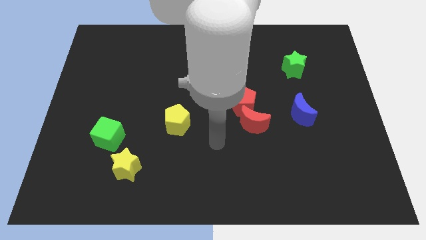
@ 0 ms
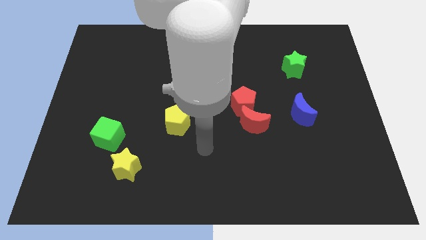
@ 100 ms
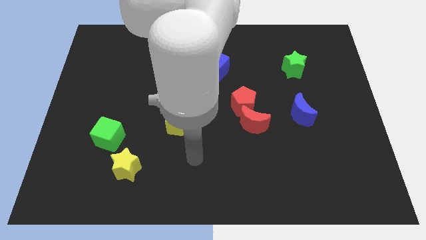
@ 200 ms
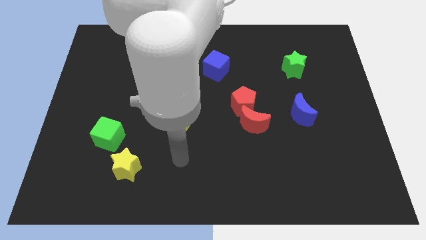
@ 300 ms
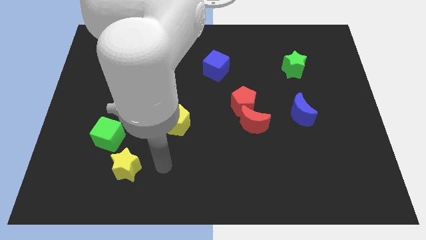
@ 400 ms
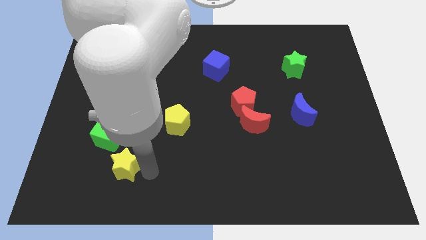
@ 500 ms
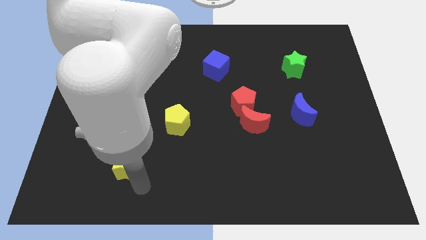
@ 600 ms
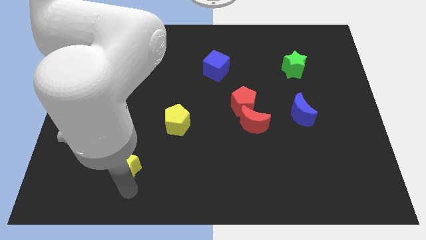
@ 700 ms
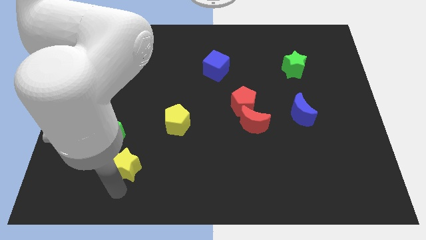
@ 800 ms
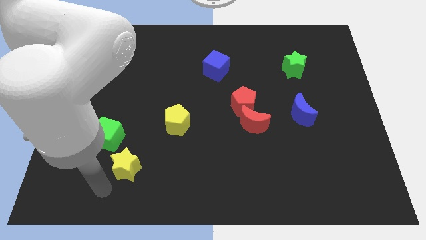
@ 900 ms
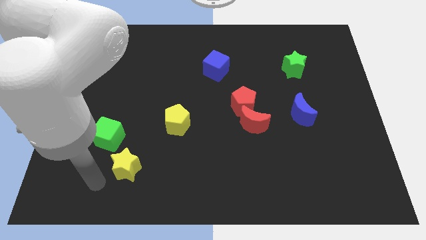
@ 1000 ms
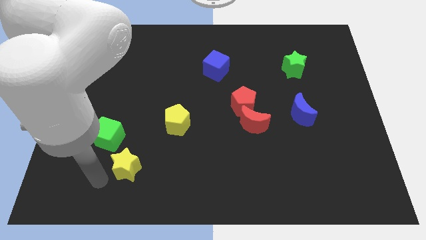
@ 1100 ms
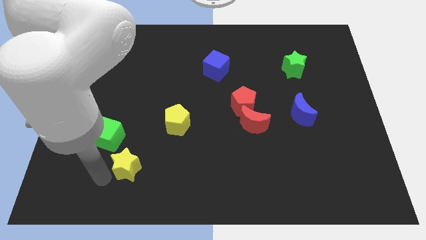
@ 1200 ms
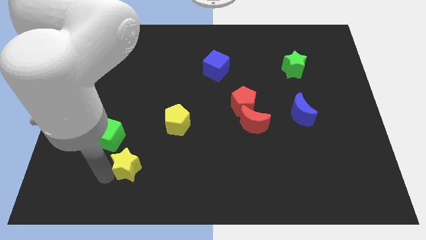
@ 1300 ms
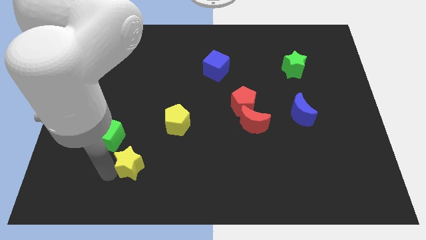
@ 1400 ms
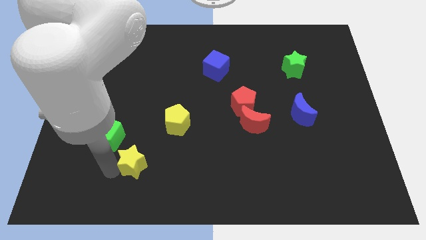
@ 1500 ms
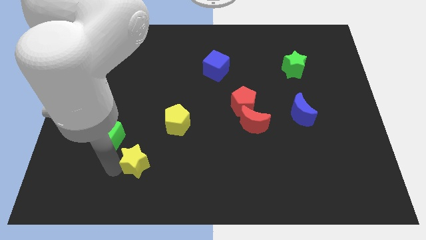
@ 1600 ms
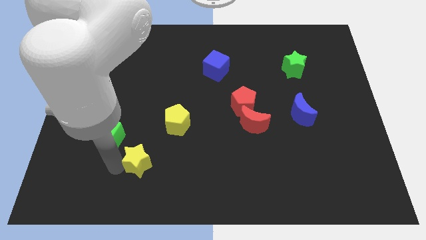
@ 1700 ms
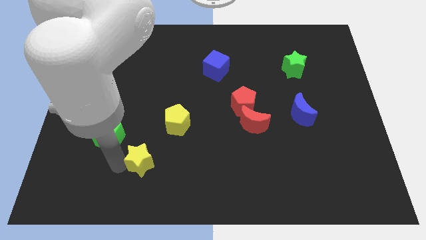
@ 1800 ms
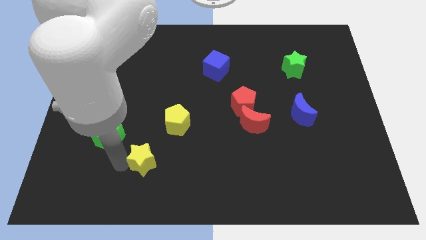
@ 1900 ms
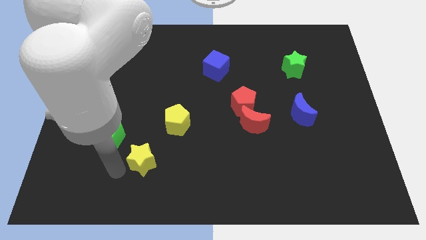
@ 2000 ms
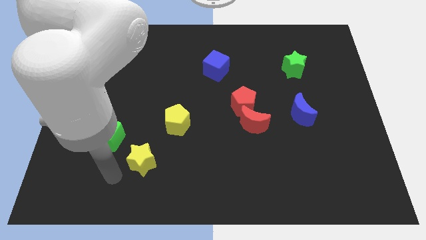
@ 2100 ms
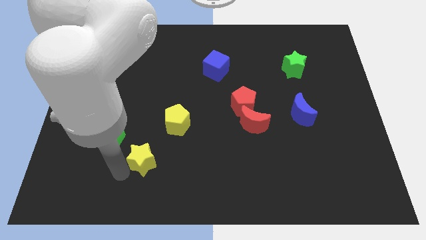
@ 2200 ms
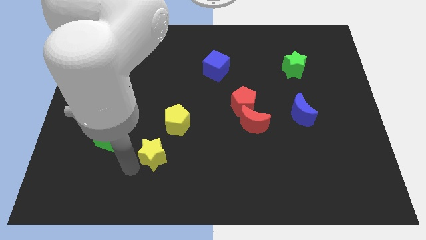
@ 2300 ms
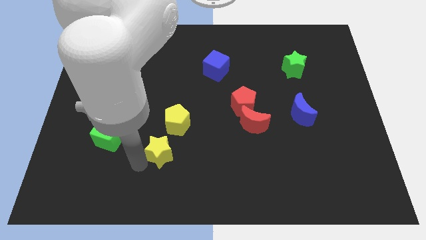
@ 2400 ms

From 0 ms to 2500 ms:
push the yellow star diagonally upwards and to the right a little bit

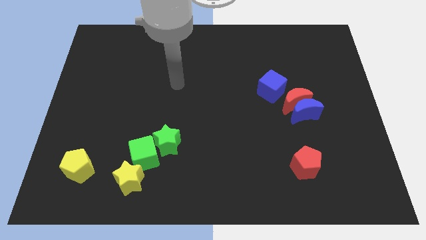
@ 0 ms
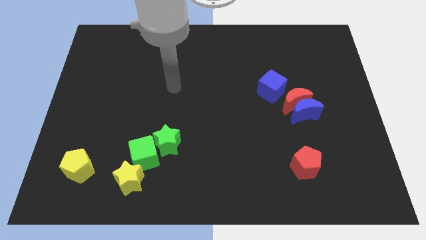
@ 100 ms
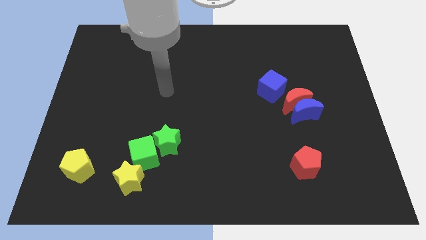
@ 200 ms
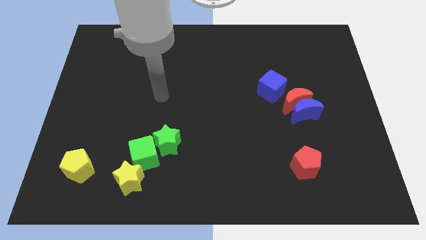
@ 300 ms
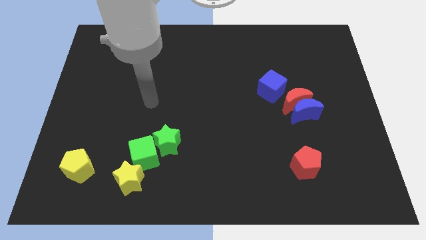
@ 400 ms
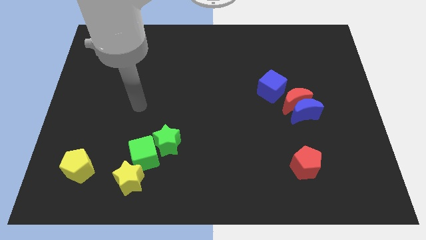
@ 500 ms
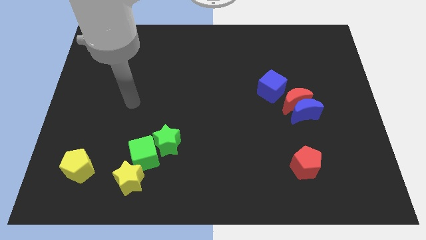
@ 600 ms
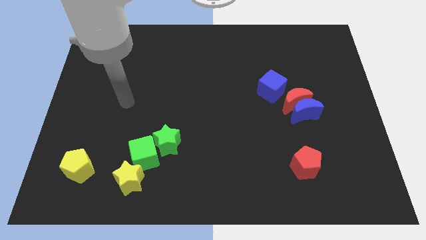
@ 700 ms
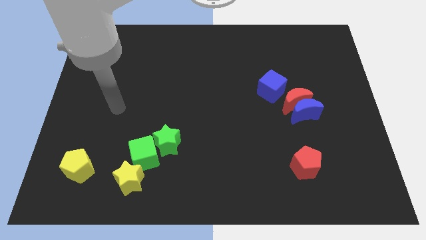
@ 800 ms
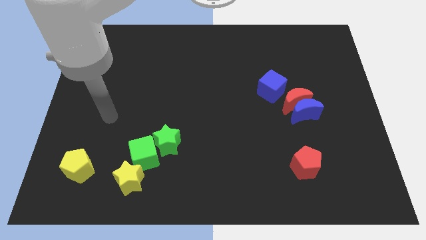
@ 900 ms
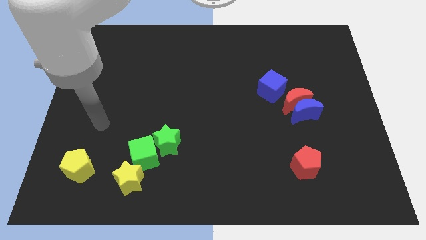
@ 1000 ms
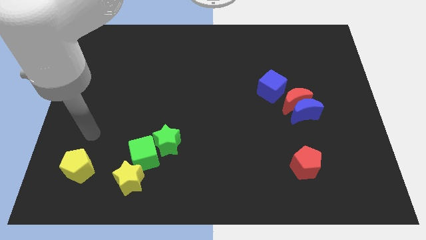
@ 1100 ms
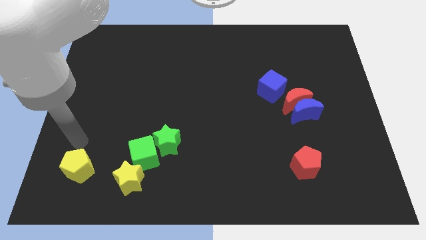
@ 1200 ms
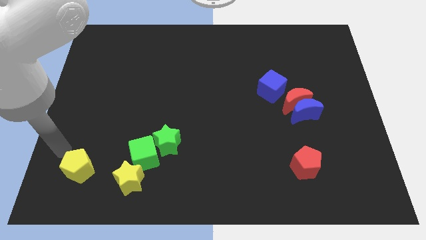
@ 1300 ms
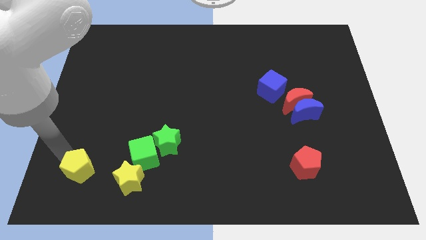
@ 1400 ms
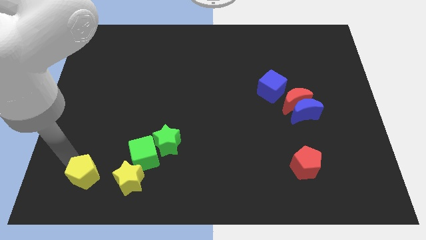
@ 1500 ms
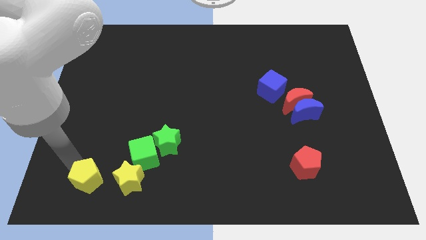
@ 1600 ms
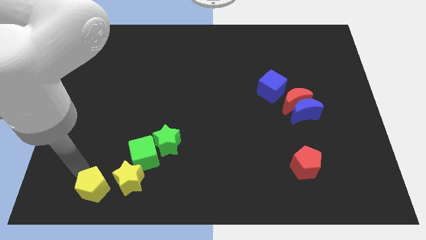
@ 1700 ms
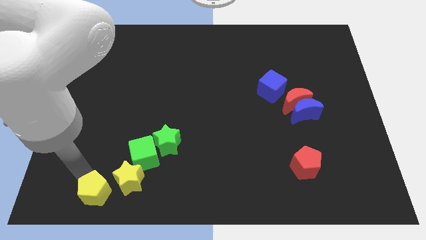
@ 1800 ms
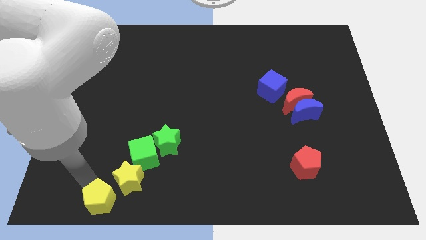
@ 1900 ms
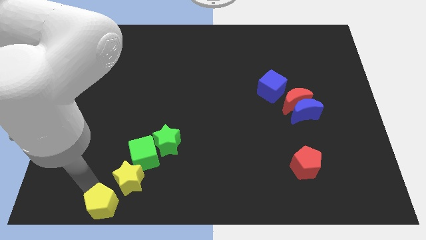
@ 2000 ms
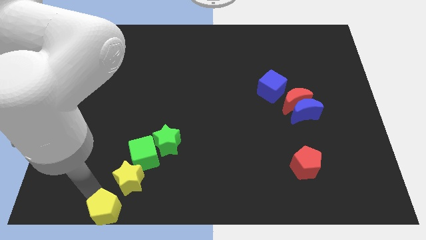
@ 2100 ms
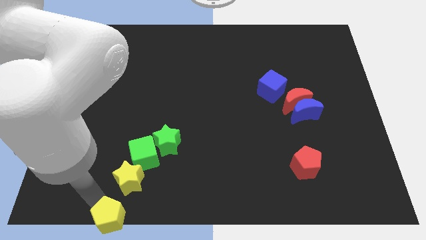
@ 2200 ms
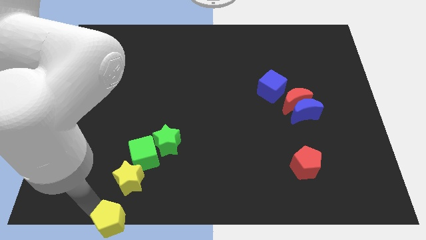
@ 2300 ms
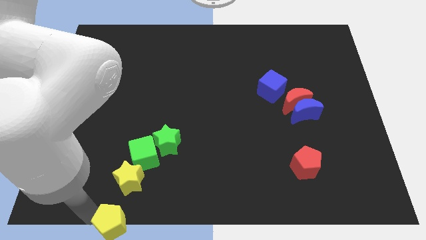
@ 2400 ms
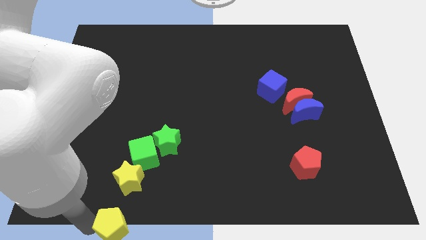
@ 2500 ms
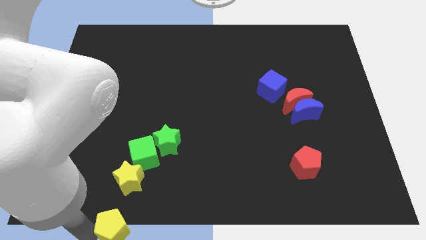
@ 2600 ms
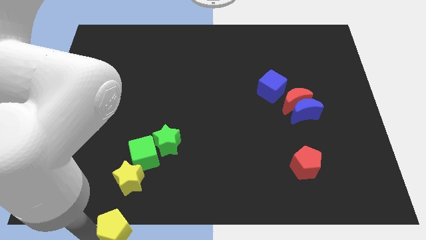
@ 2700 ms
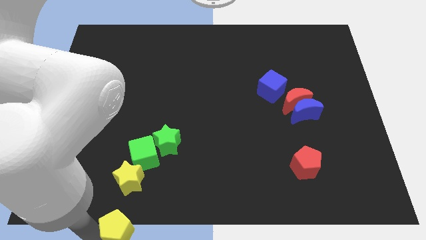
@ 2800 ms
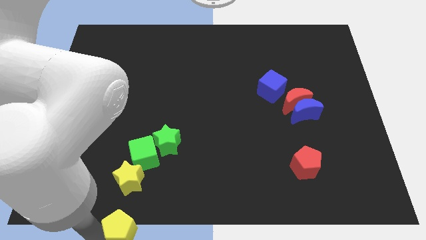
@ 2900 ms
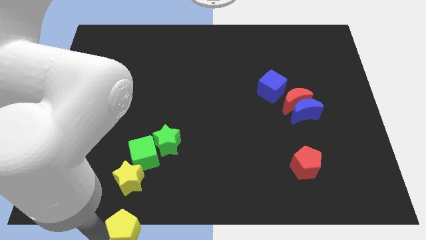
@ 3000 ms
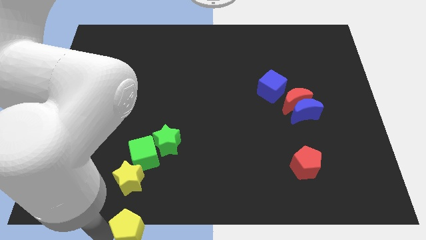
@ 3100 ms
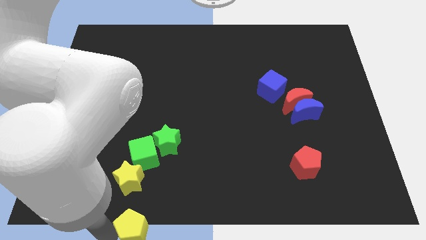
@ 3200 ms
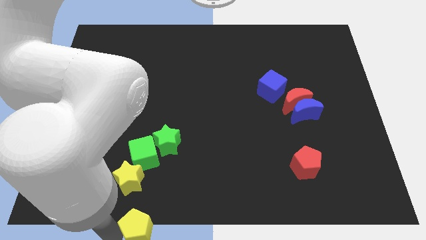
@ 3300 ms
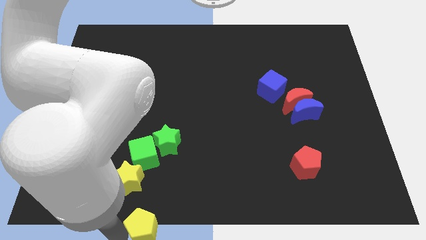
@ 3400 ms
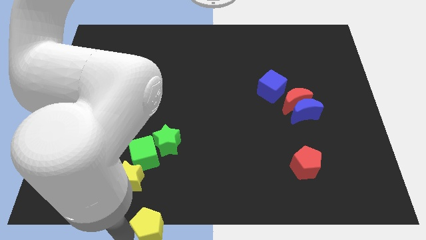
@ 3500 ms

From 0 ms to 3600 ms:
push the yellow pentagon a bit right

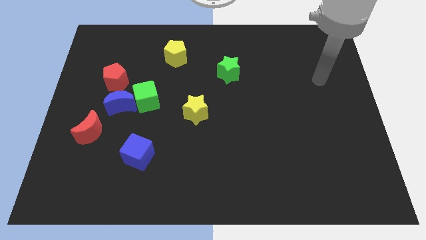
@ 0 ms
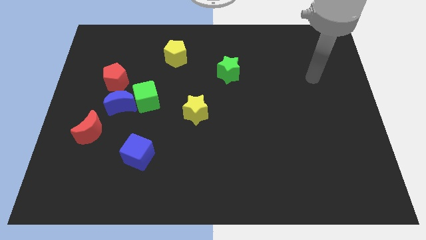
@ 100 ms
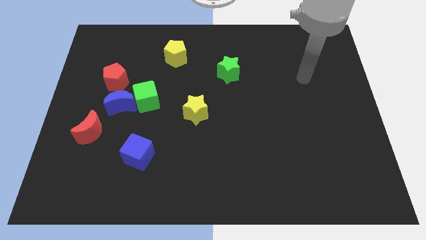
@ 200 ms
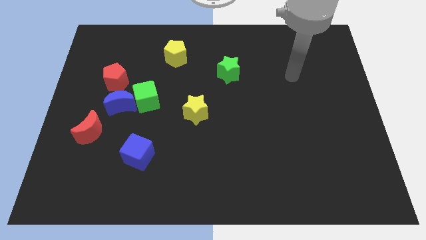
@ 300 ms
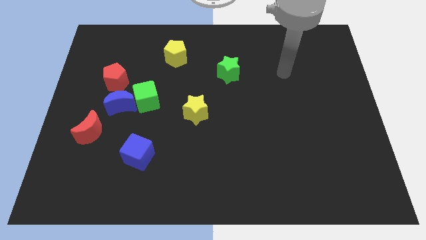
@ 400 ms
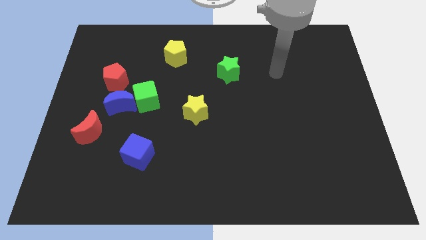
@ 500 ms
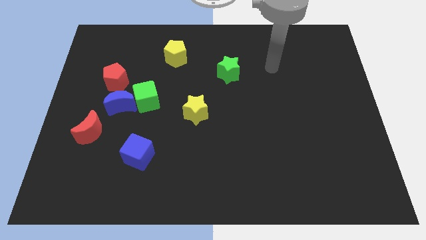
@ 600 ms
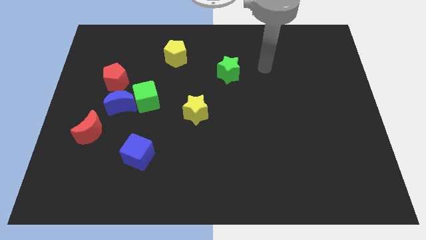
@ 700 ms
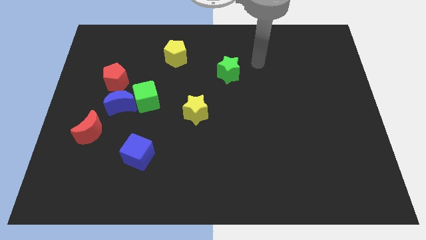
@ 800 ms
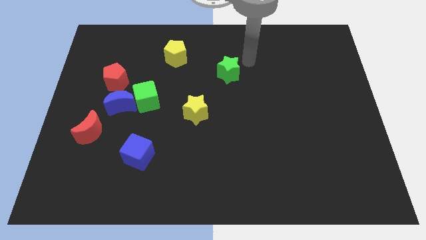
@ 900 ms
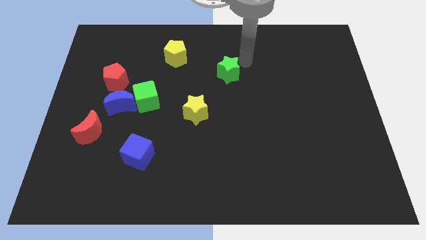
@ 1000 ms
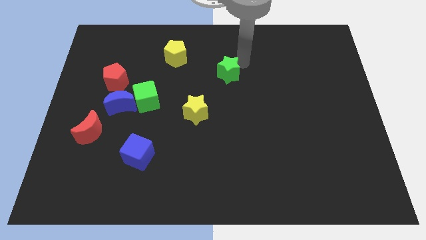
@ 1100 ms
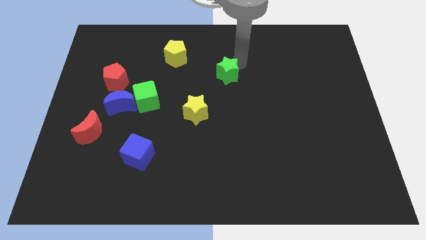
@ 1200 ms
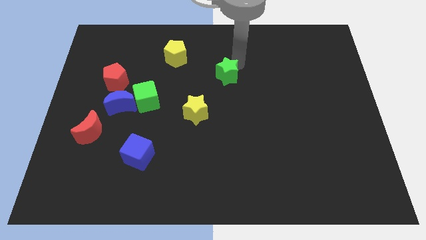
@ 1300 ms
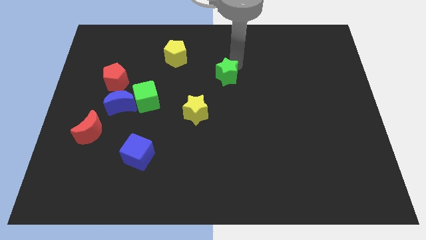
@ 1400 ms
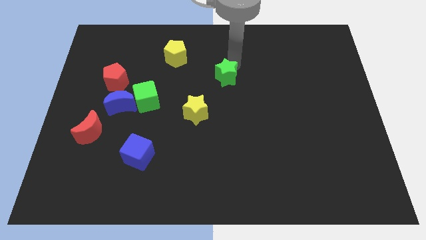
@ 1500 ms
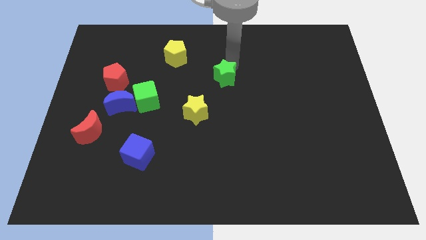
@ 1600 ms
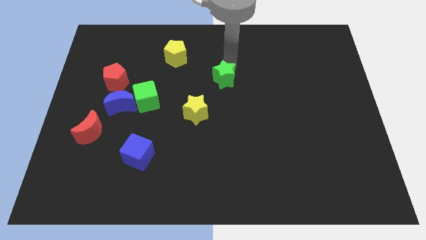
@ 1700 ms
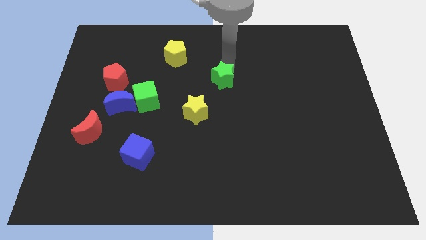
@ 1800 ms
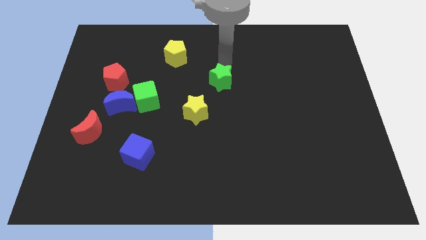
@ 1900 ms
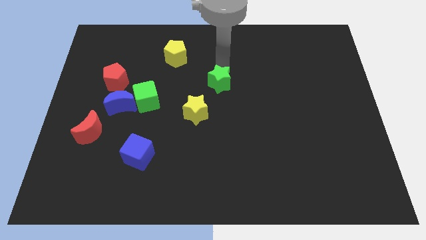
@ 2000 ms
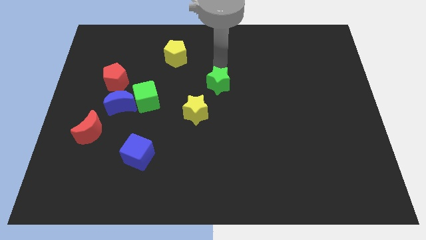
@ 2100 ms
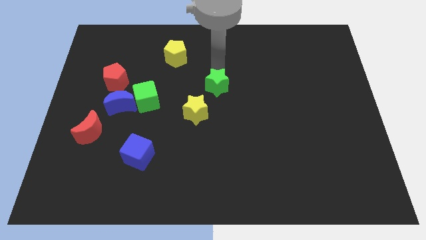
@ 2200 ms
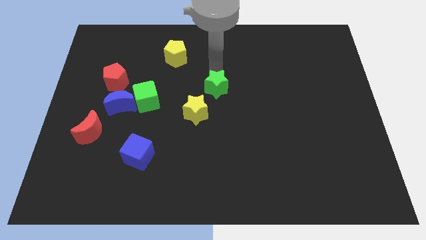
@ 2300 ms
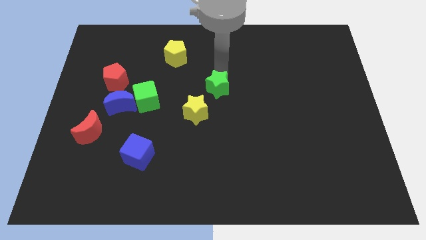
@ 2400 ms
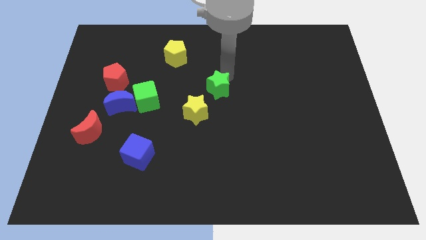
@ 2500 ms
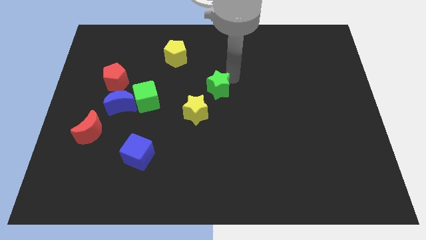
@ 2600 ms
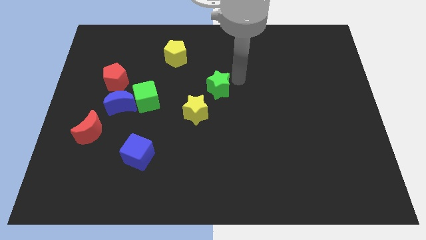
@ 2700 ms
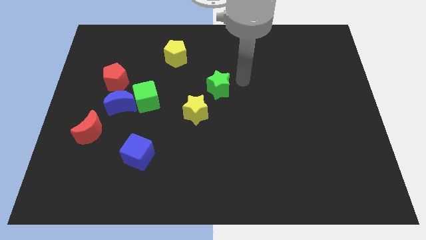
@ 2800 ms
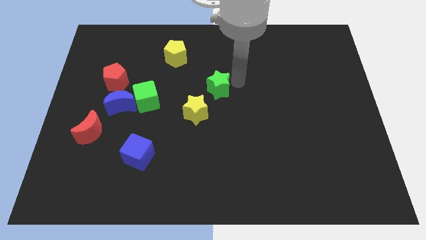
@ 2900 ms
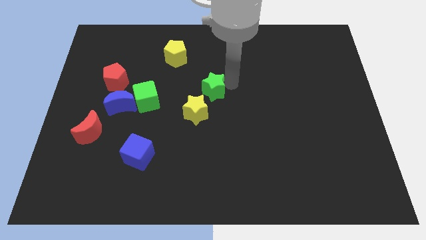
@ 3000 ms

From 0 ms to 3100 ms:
slightly move the green star down and then left
